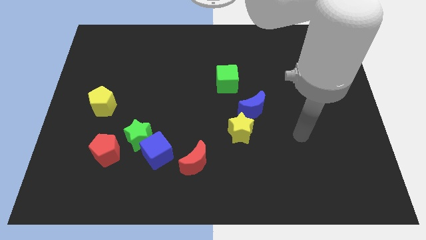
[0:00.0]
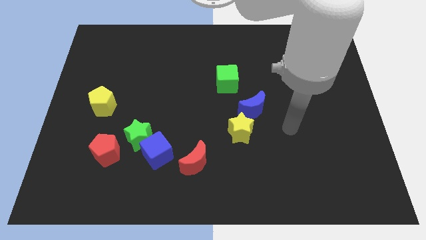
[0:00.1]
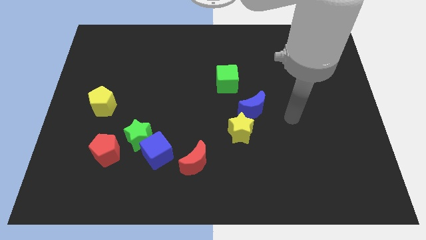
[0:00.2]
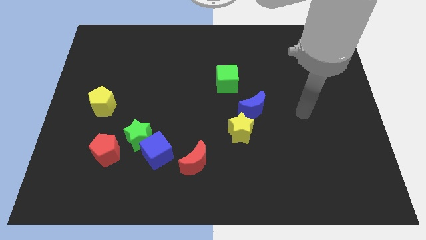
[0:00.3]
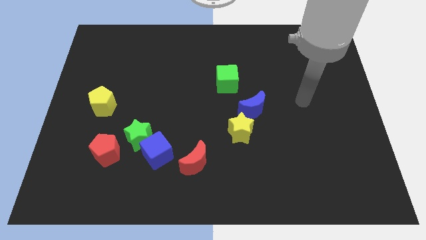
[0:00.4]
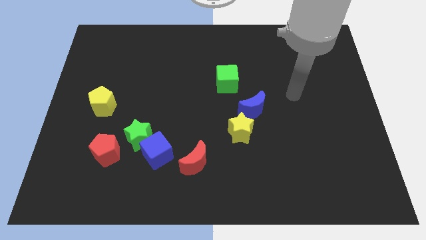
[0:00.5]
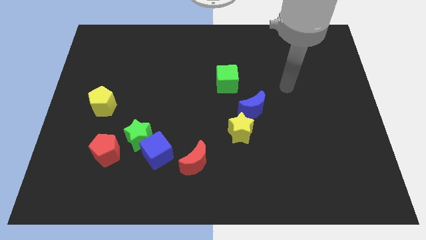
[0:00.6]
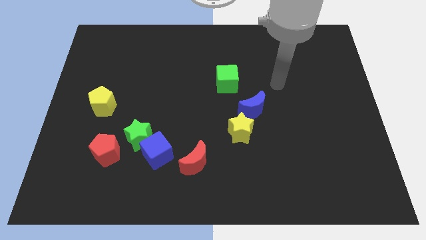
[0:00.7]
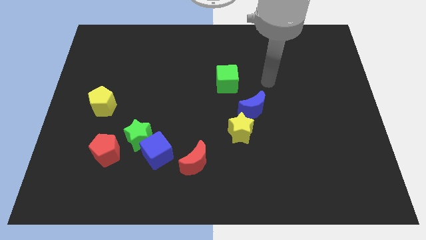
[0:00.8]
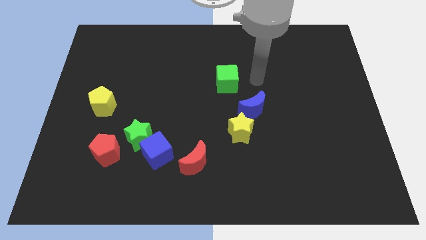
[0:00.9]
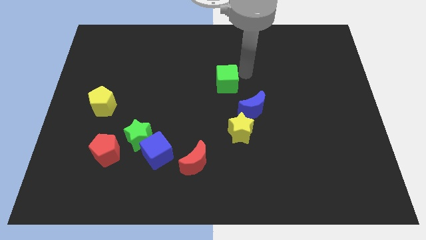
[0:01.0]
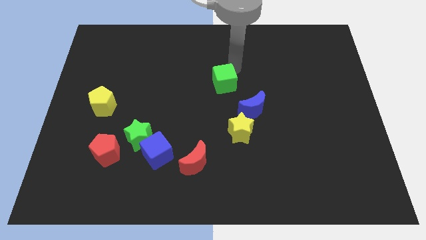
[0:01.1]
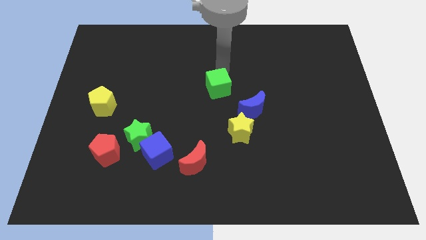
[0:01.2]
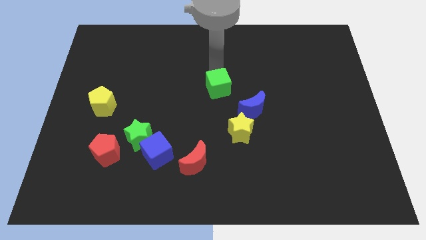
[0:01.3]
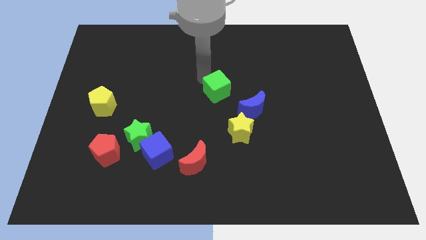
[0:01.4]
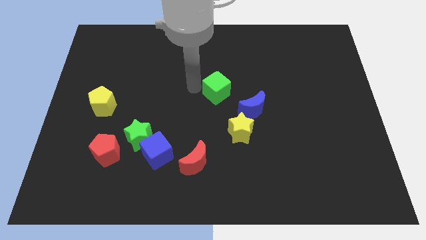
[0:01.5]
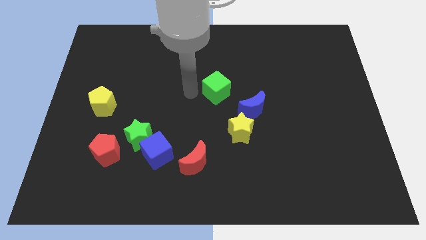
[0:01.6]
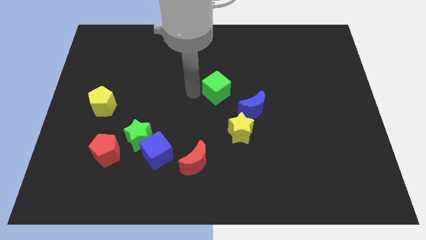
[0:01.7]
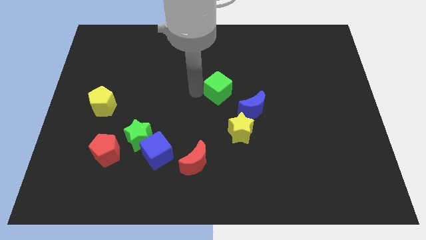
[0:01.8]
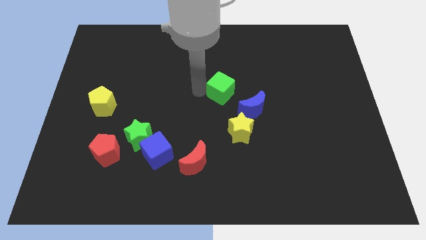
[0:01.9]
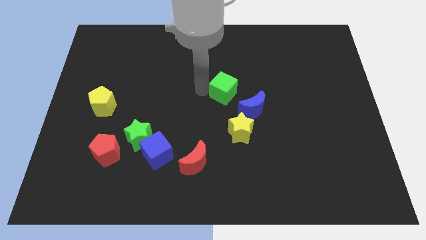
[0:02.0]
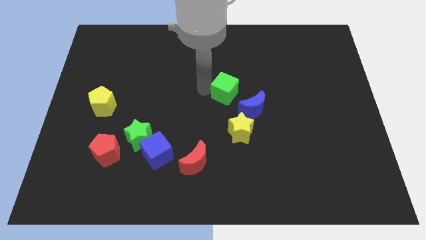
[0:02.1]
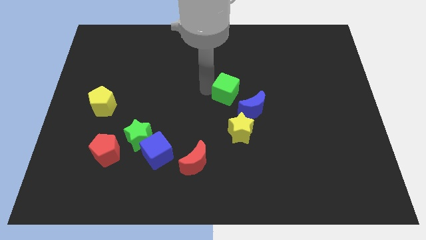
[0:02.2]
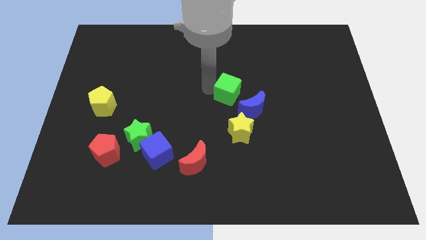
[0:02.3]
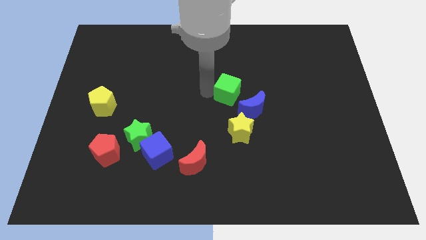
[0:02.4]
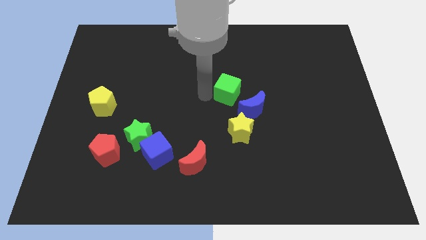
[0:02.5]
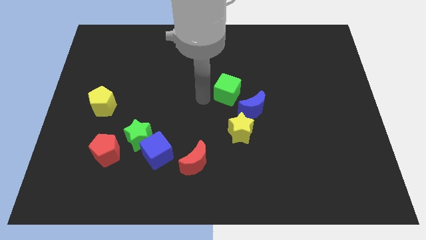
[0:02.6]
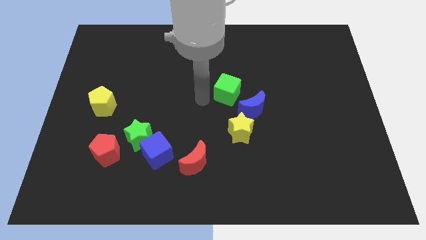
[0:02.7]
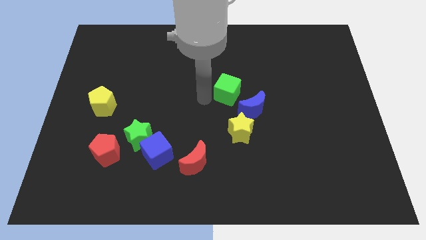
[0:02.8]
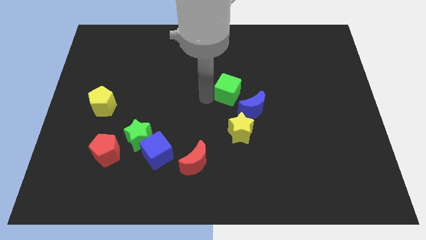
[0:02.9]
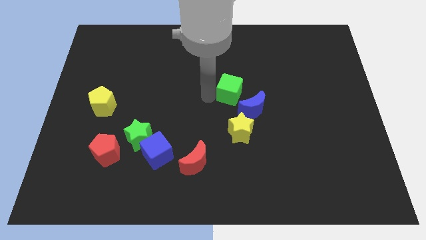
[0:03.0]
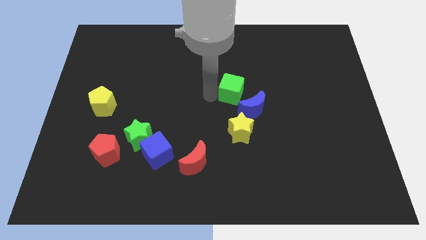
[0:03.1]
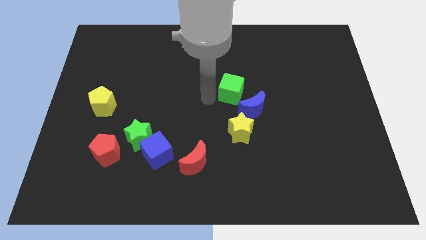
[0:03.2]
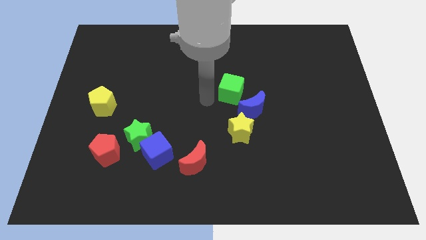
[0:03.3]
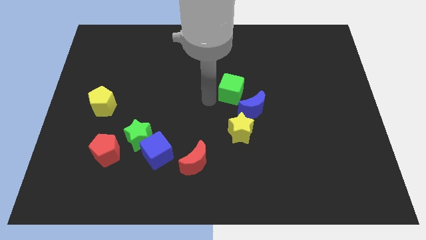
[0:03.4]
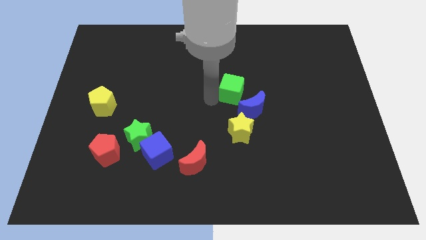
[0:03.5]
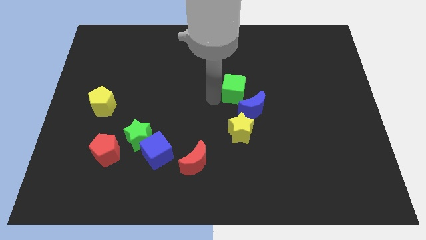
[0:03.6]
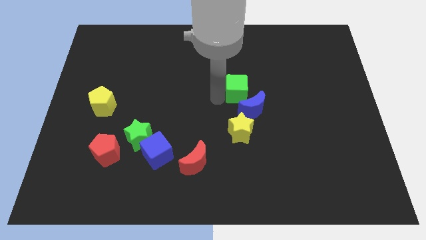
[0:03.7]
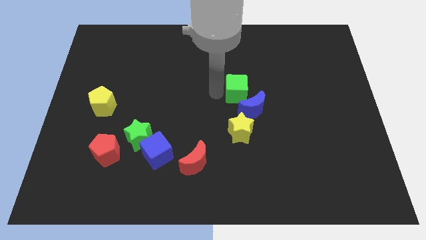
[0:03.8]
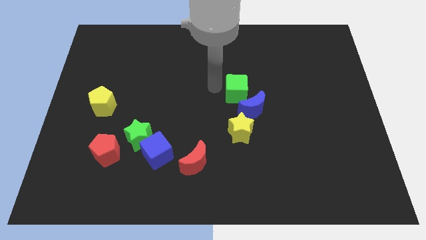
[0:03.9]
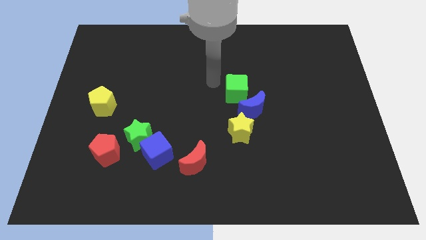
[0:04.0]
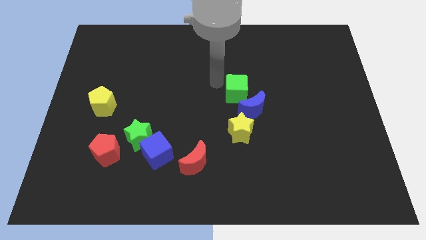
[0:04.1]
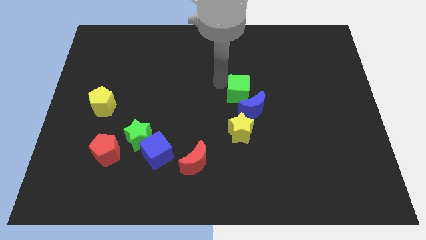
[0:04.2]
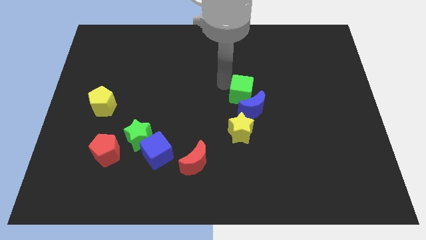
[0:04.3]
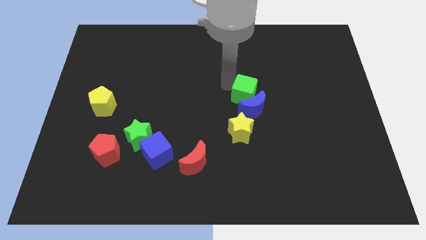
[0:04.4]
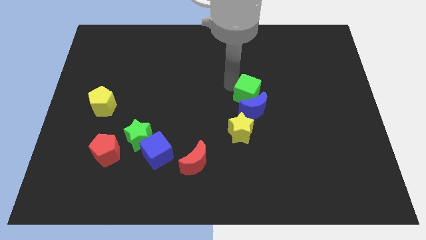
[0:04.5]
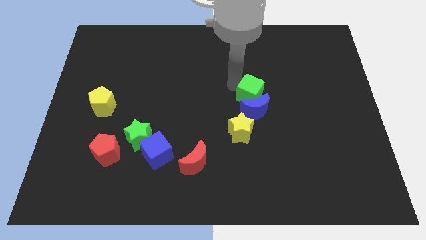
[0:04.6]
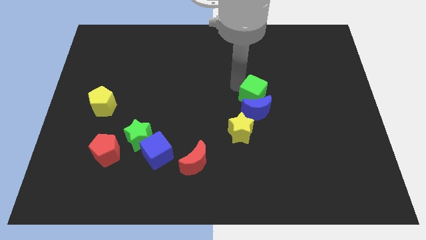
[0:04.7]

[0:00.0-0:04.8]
push the green cube somewhat downwards and to the right diagonally

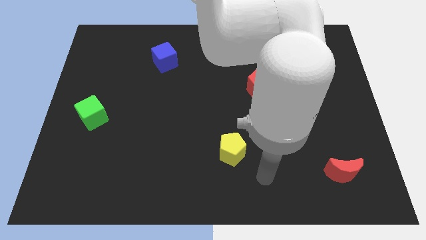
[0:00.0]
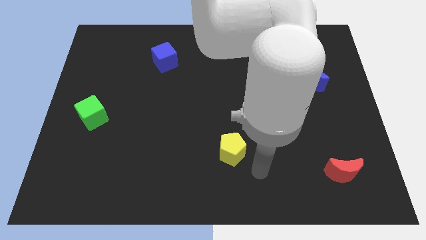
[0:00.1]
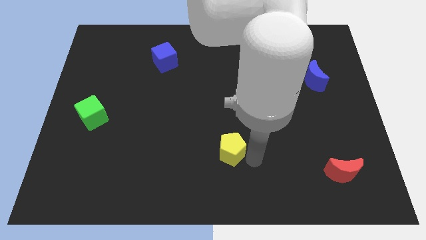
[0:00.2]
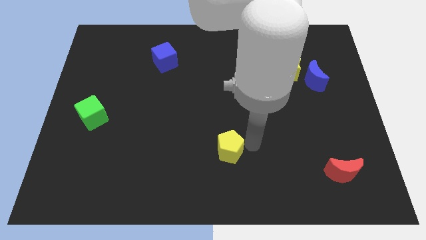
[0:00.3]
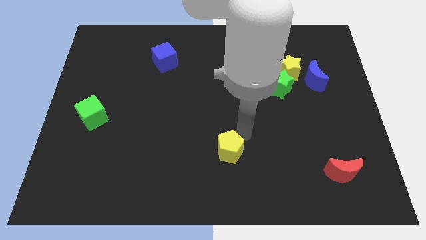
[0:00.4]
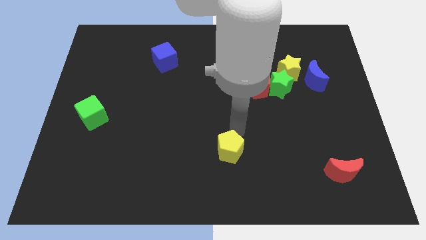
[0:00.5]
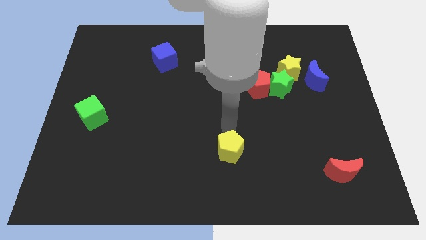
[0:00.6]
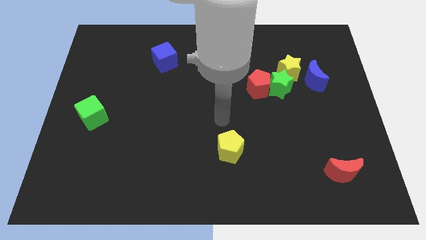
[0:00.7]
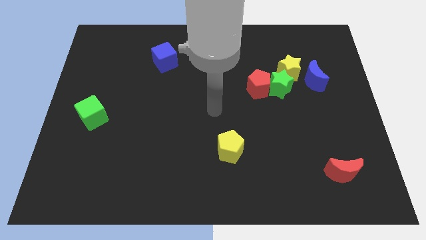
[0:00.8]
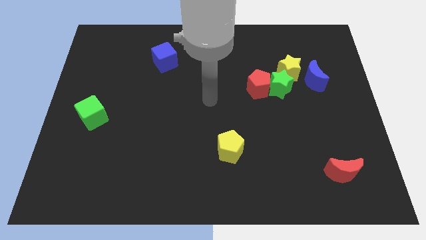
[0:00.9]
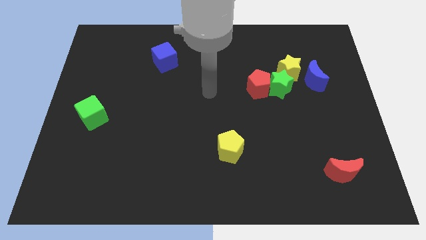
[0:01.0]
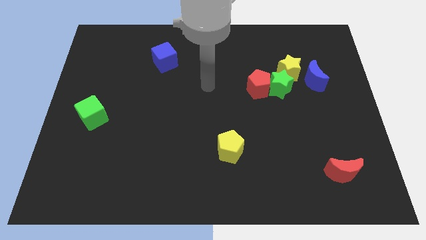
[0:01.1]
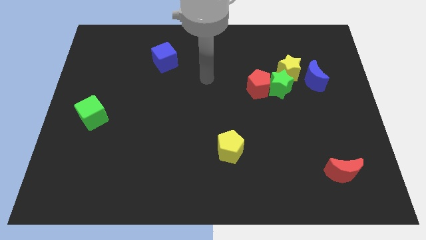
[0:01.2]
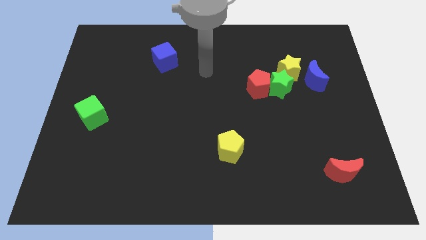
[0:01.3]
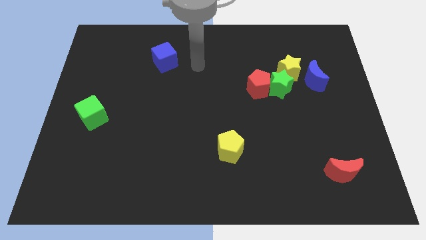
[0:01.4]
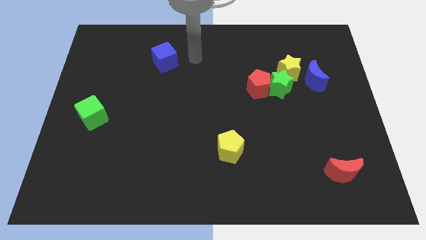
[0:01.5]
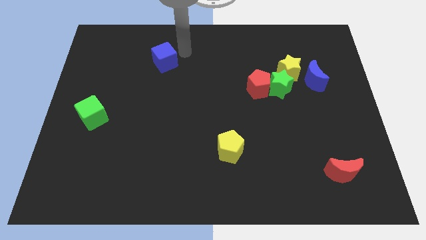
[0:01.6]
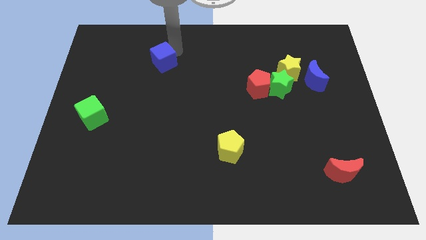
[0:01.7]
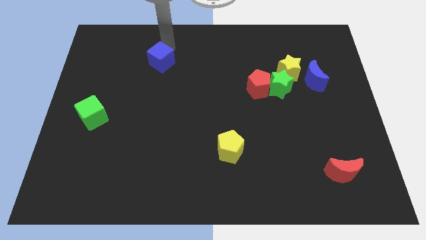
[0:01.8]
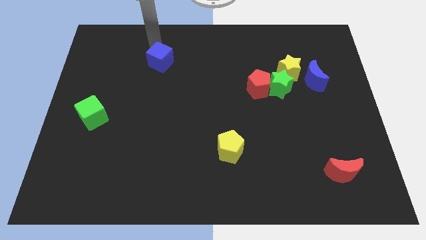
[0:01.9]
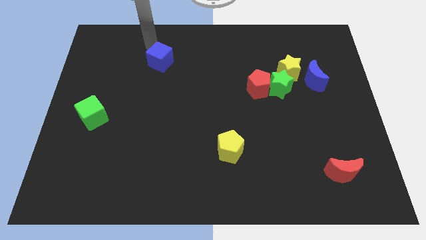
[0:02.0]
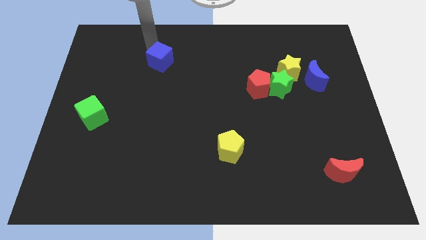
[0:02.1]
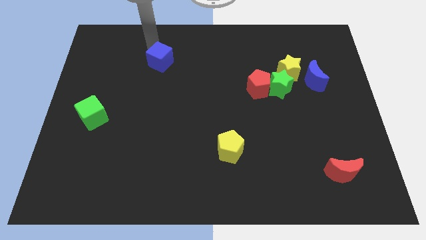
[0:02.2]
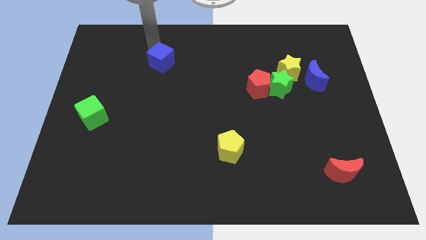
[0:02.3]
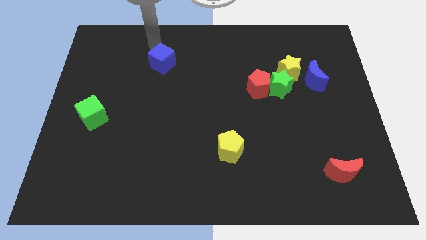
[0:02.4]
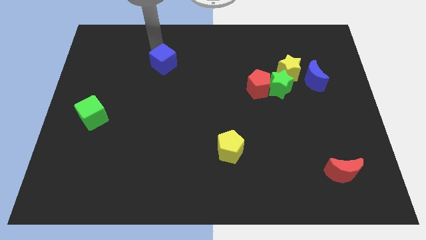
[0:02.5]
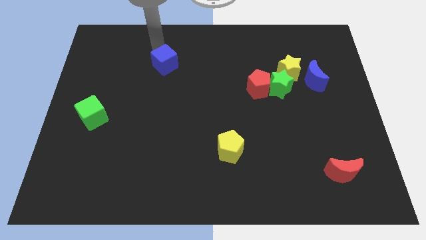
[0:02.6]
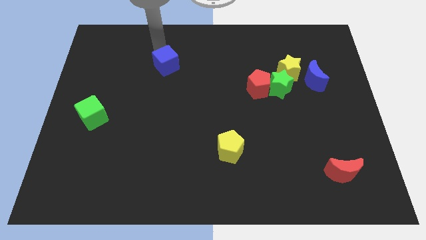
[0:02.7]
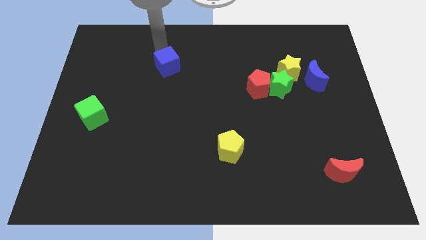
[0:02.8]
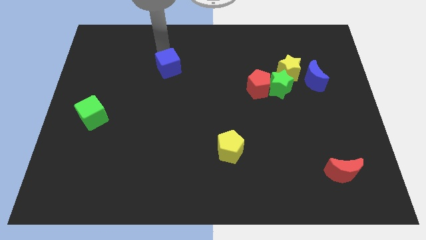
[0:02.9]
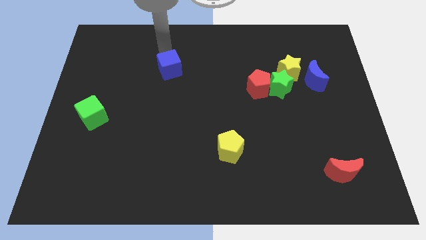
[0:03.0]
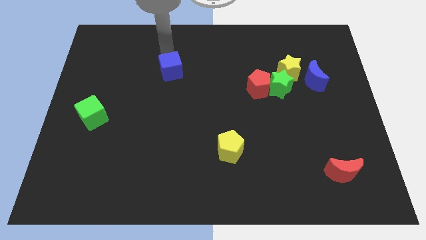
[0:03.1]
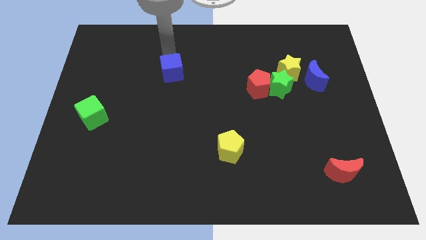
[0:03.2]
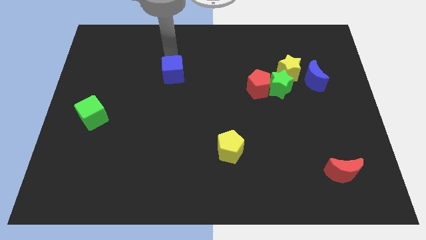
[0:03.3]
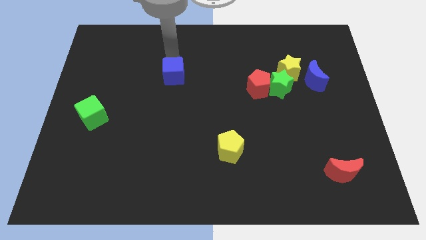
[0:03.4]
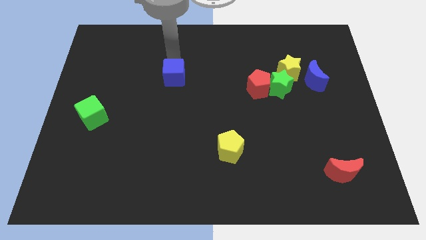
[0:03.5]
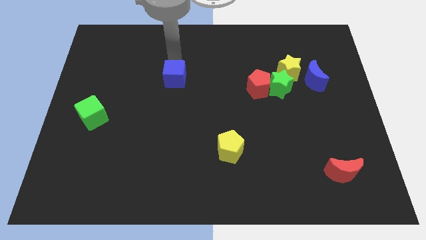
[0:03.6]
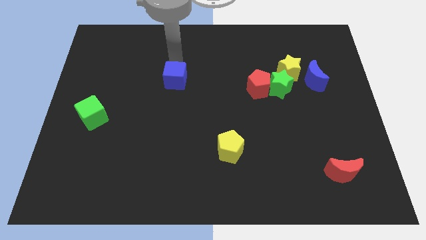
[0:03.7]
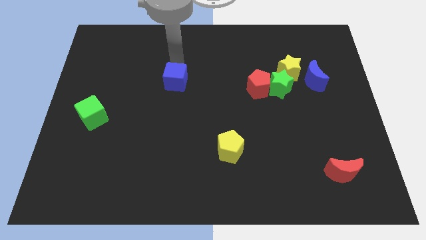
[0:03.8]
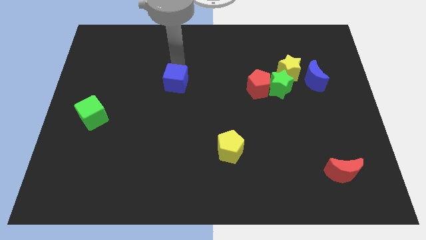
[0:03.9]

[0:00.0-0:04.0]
slide the blue cube down a little
